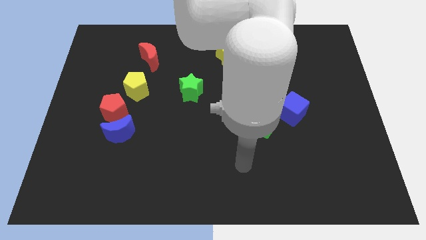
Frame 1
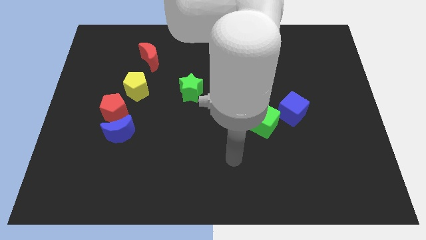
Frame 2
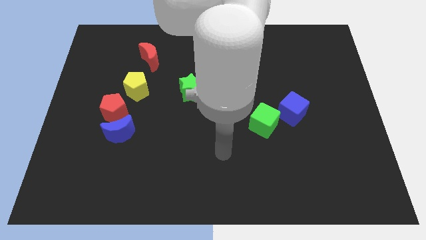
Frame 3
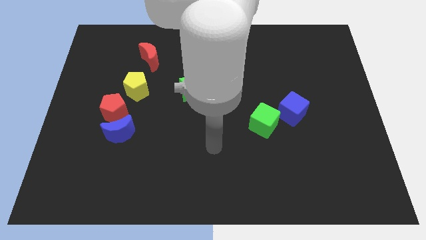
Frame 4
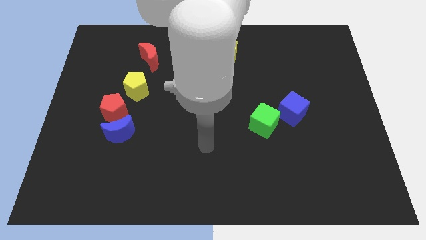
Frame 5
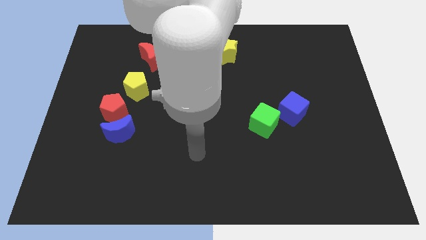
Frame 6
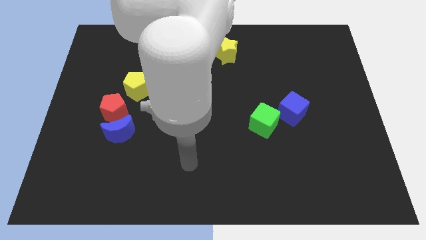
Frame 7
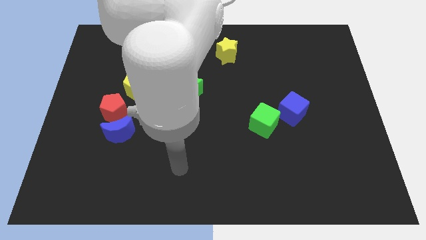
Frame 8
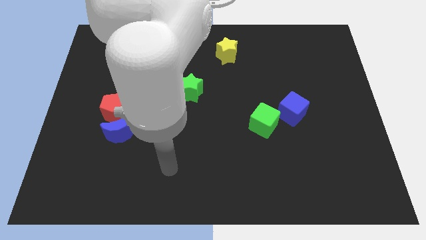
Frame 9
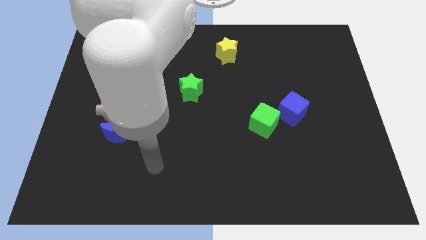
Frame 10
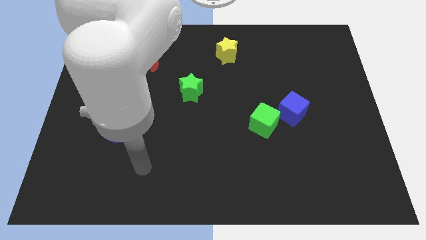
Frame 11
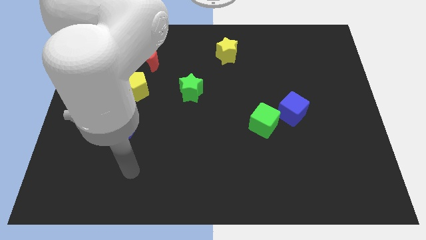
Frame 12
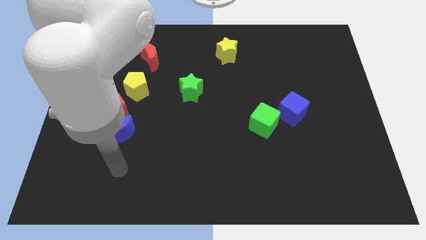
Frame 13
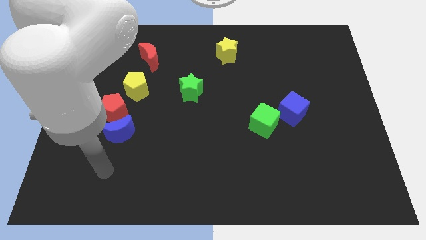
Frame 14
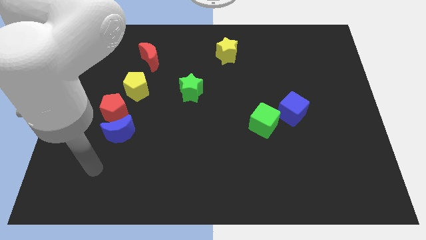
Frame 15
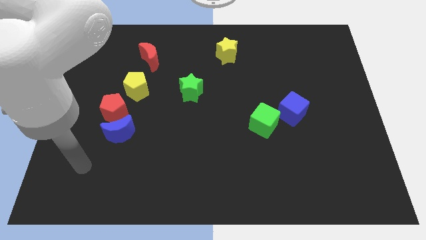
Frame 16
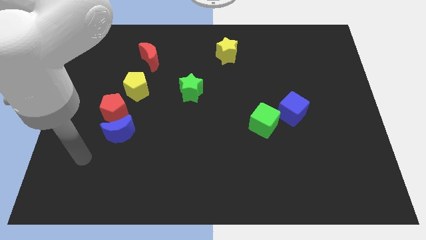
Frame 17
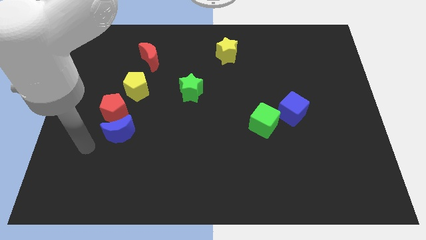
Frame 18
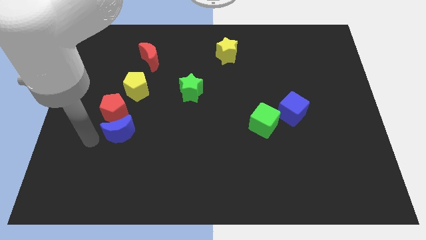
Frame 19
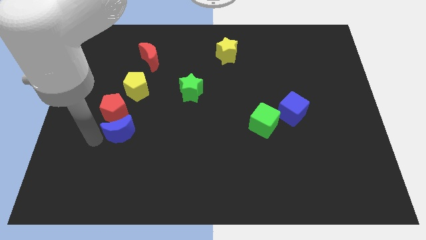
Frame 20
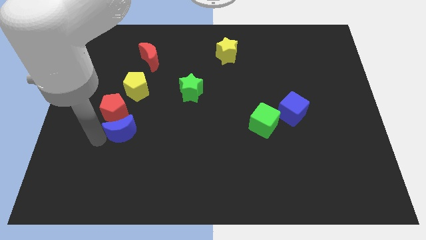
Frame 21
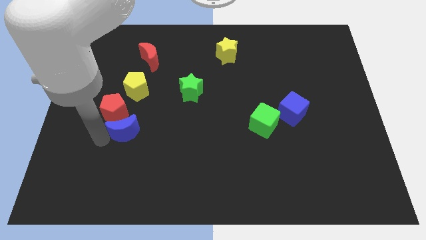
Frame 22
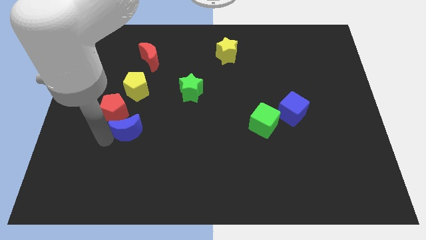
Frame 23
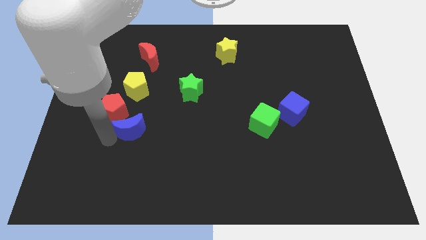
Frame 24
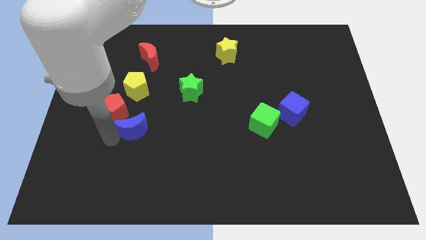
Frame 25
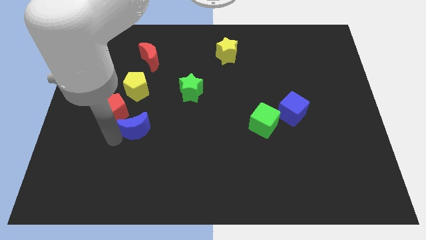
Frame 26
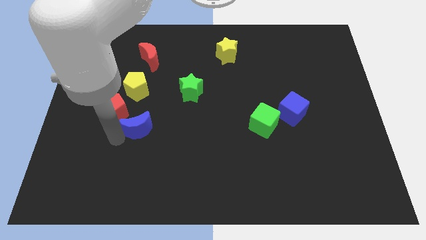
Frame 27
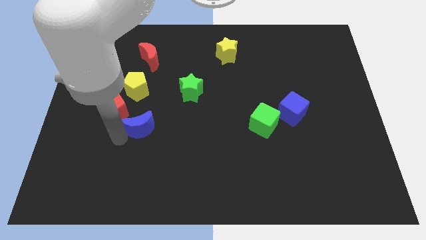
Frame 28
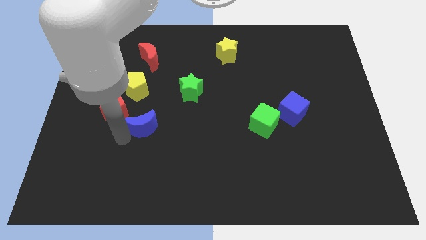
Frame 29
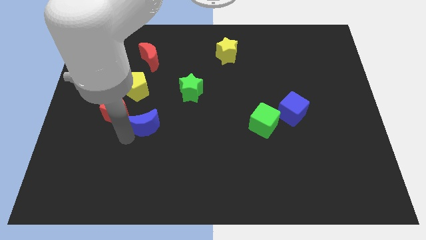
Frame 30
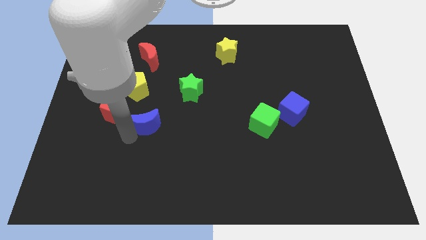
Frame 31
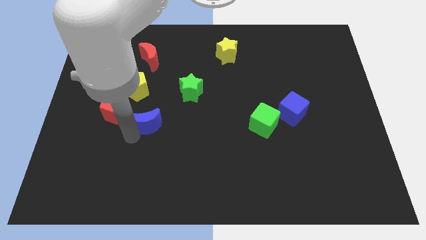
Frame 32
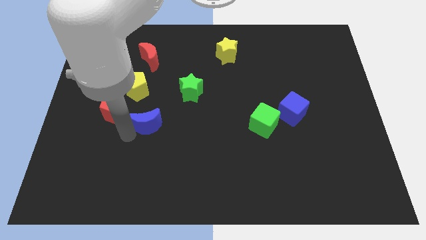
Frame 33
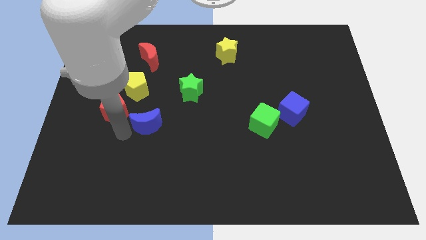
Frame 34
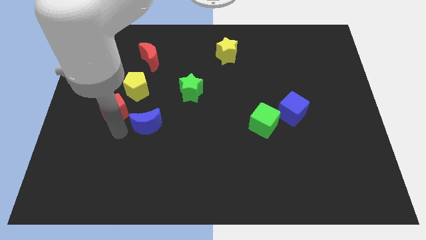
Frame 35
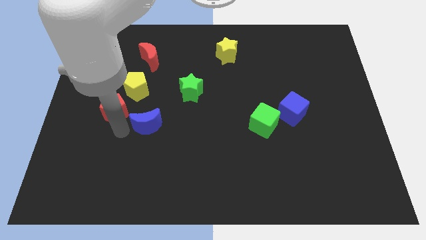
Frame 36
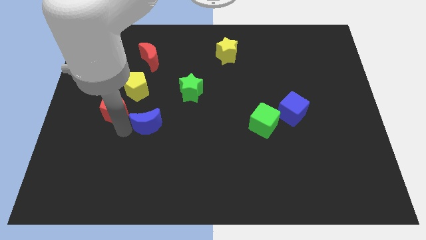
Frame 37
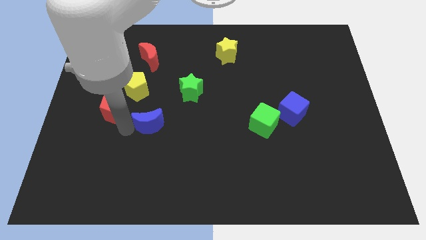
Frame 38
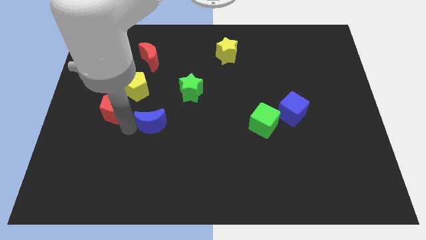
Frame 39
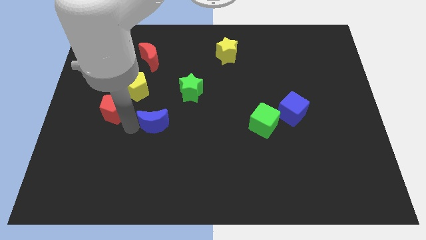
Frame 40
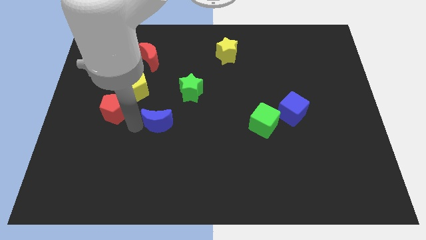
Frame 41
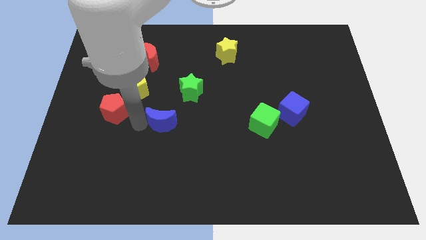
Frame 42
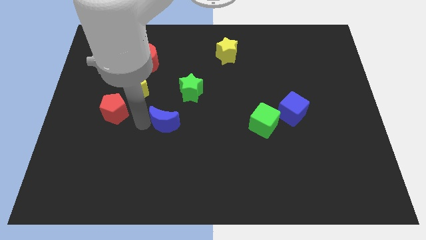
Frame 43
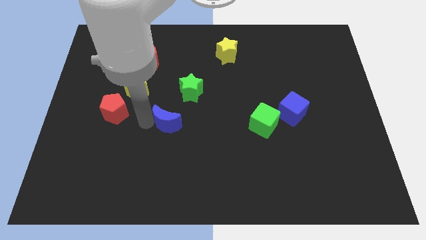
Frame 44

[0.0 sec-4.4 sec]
push the blue moon to the center

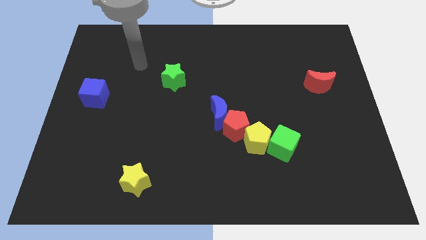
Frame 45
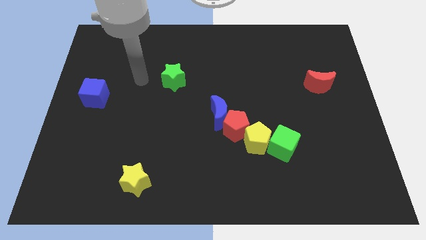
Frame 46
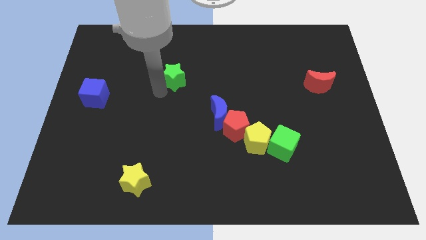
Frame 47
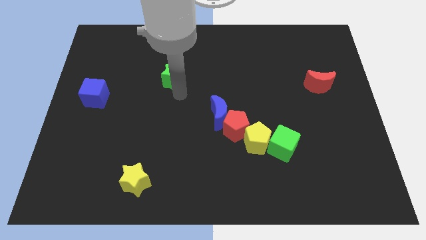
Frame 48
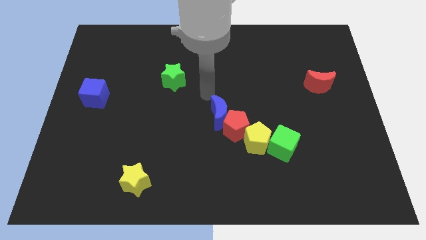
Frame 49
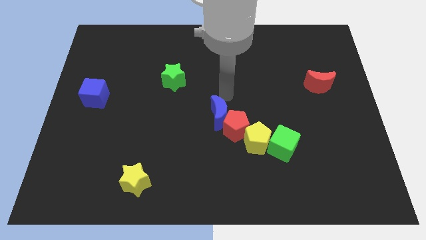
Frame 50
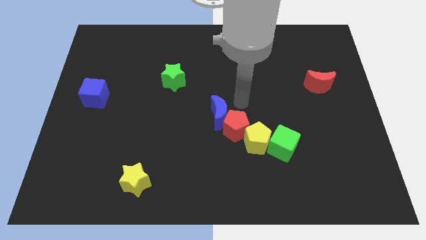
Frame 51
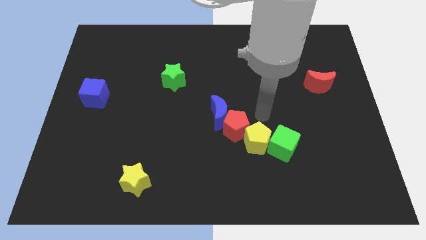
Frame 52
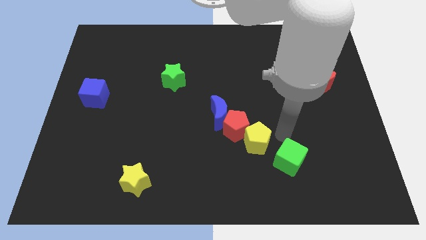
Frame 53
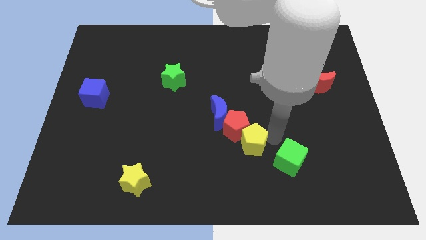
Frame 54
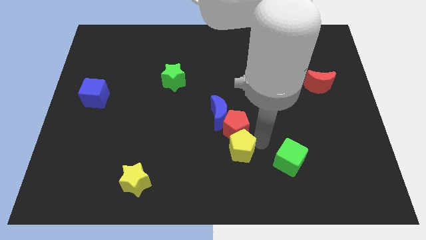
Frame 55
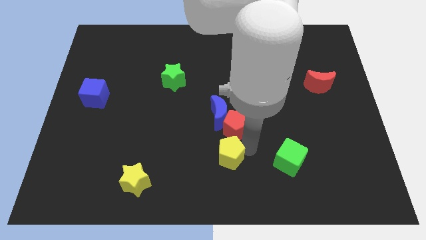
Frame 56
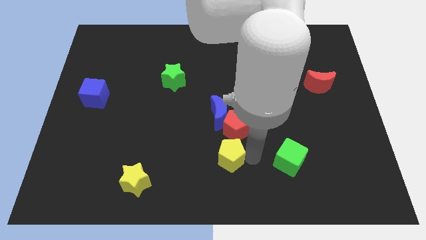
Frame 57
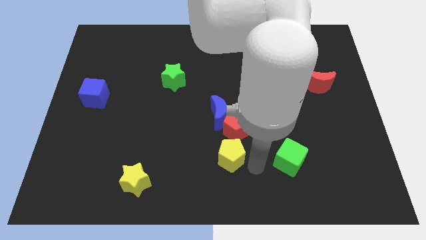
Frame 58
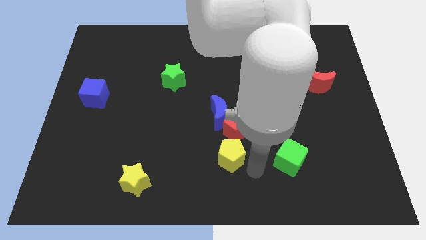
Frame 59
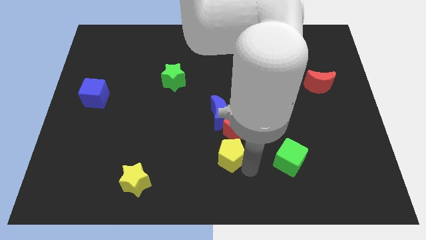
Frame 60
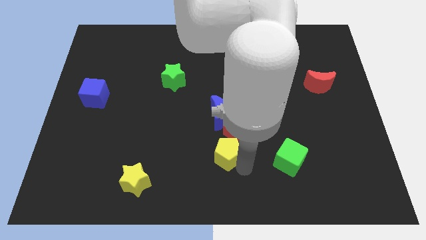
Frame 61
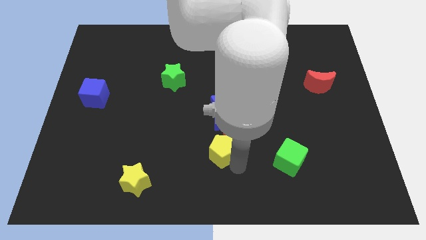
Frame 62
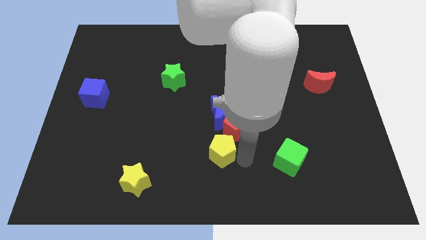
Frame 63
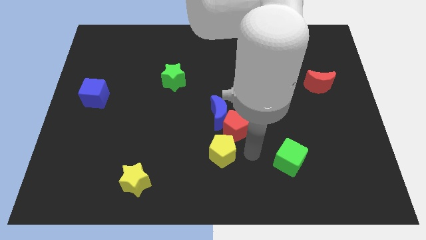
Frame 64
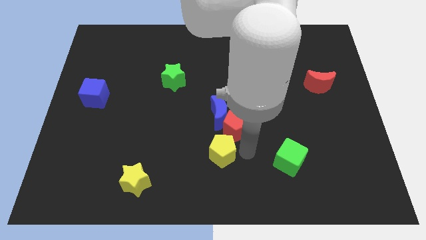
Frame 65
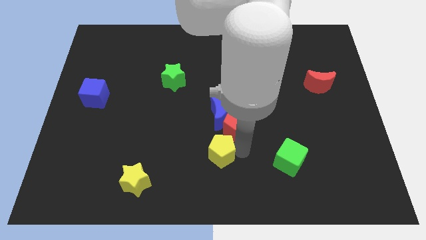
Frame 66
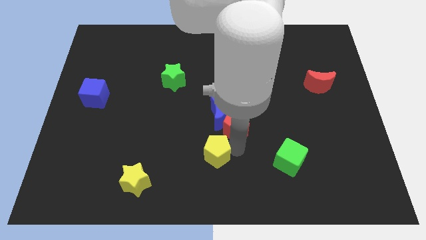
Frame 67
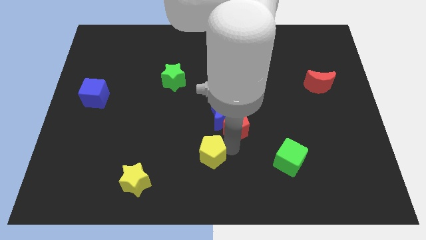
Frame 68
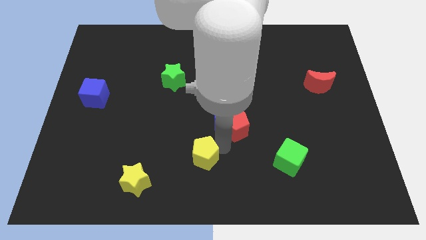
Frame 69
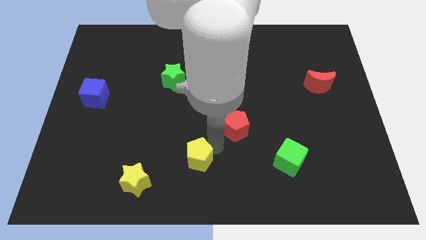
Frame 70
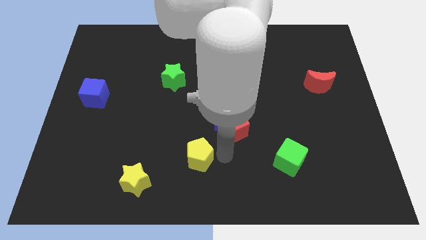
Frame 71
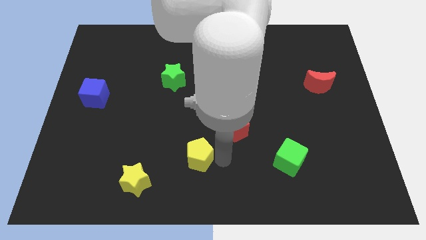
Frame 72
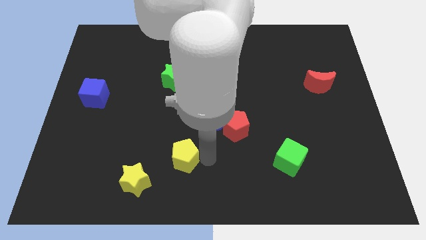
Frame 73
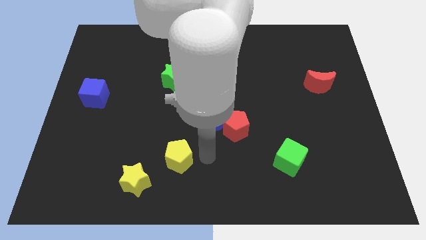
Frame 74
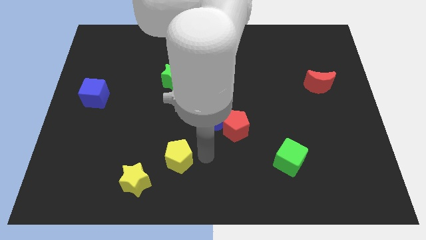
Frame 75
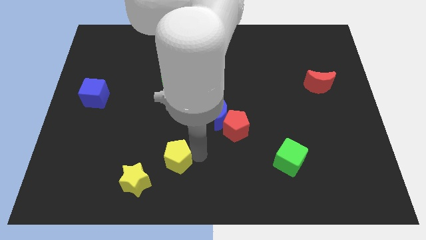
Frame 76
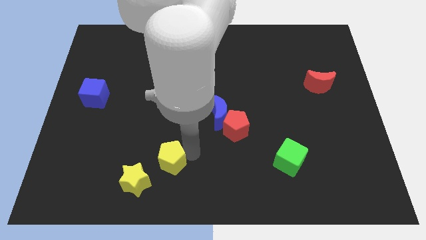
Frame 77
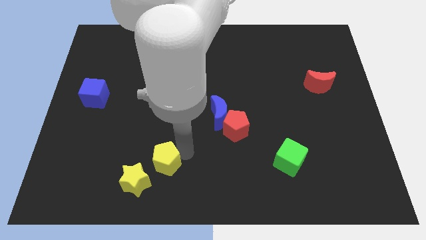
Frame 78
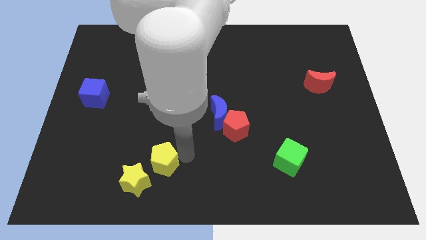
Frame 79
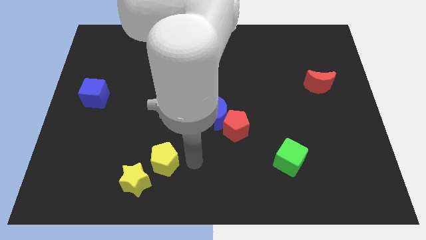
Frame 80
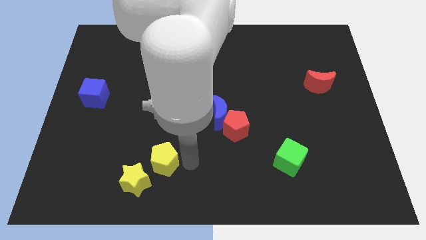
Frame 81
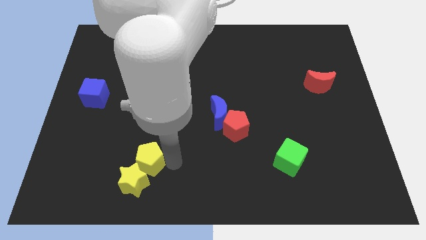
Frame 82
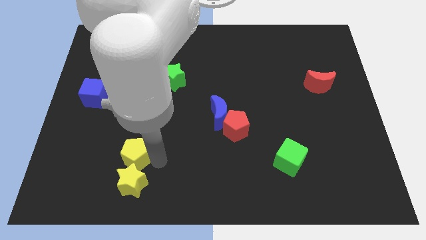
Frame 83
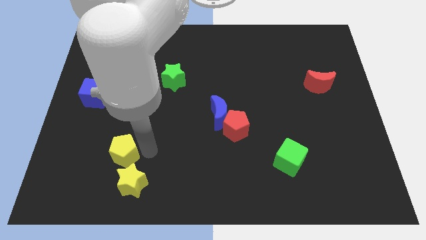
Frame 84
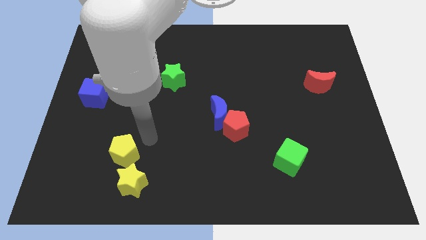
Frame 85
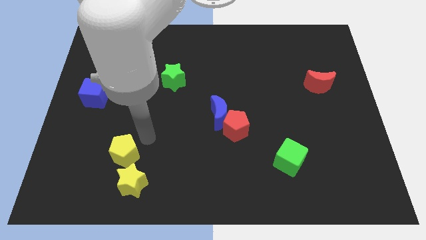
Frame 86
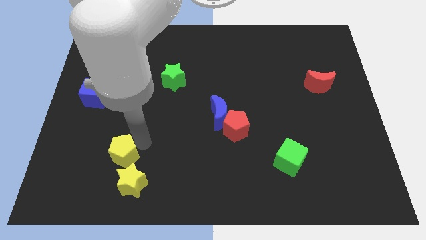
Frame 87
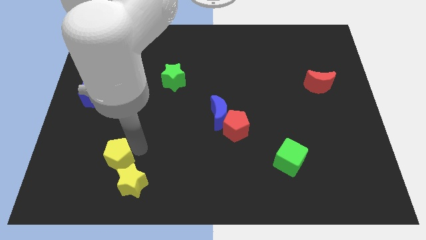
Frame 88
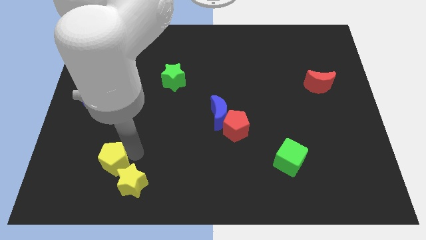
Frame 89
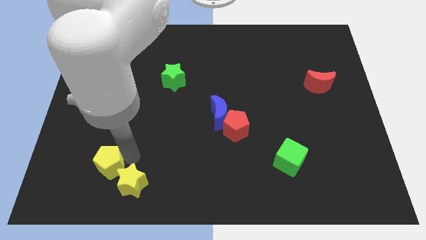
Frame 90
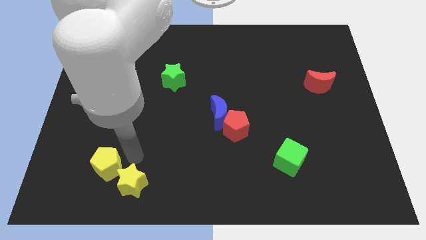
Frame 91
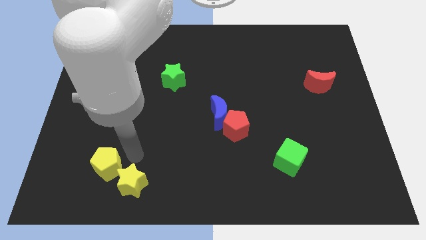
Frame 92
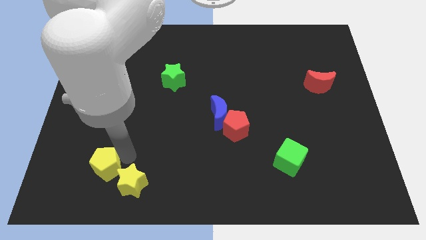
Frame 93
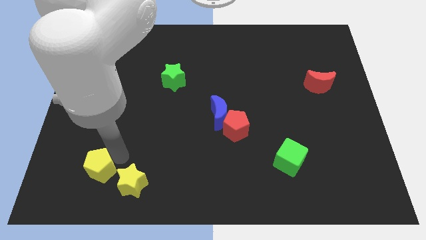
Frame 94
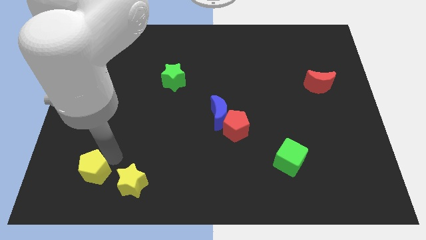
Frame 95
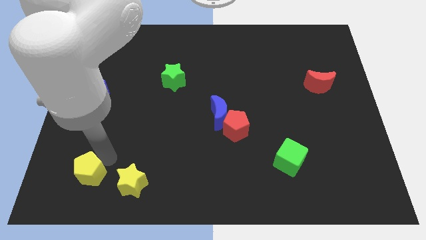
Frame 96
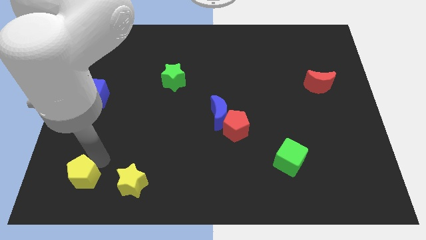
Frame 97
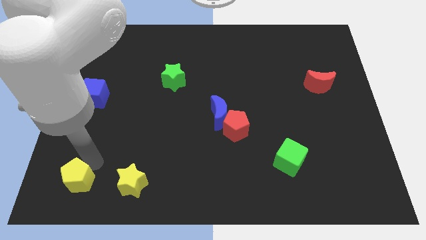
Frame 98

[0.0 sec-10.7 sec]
slide the yellow pentagon to the bottom left of the board
